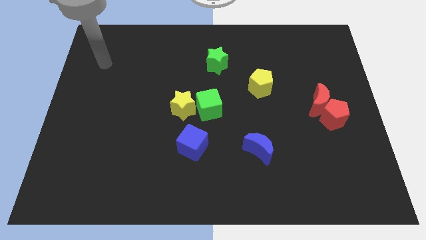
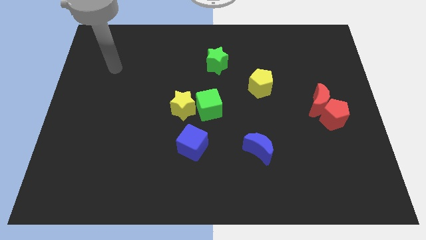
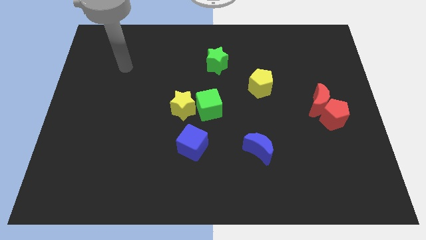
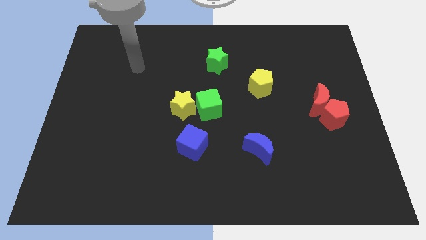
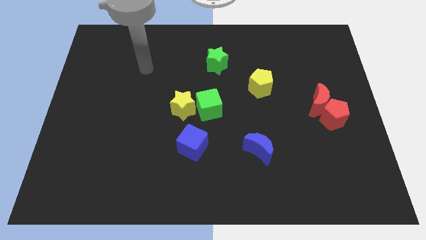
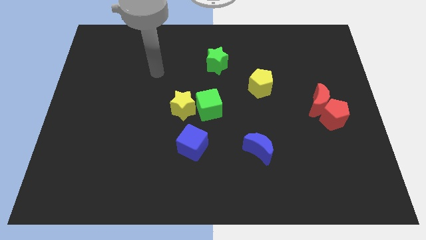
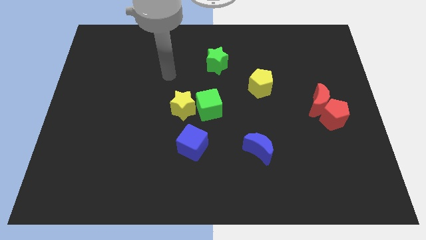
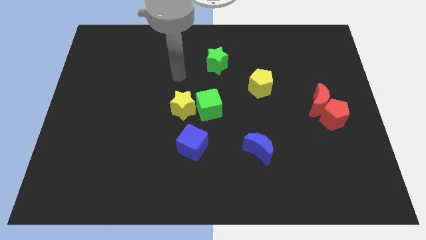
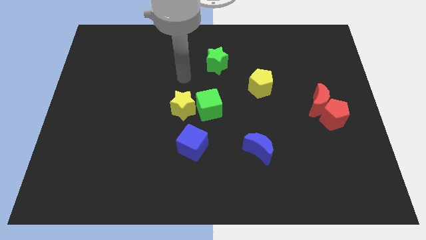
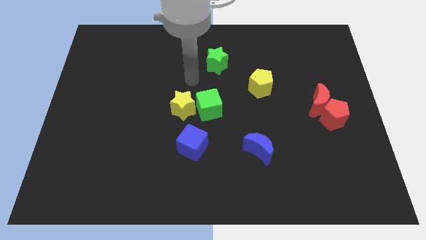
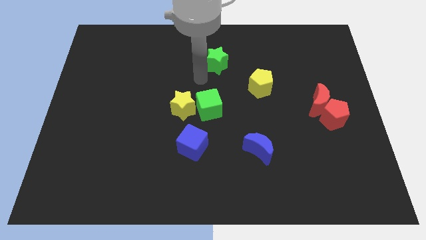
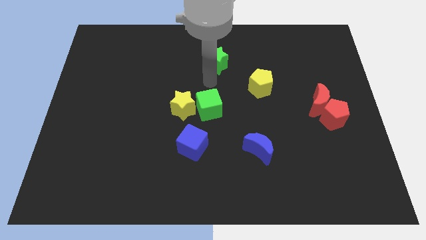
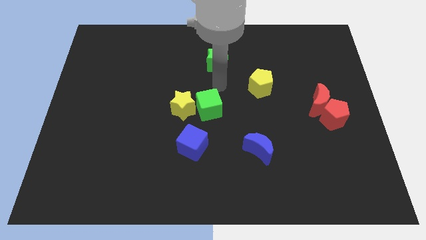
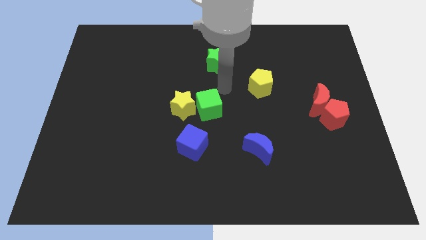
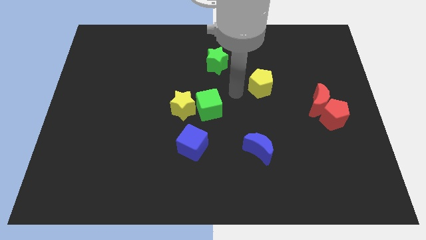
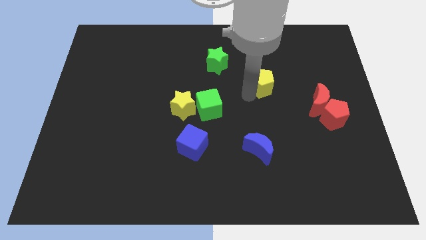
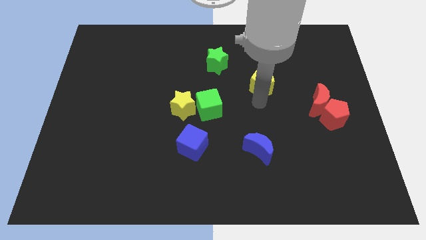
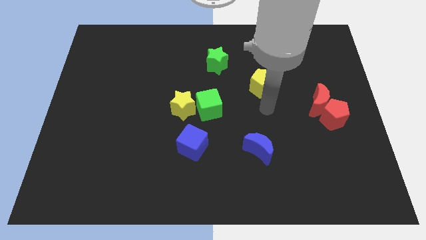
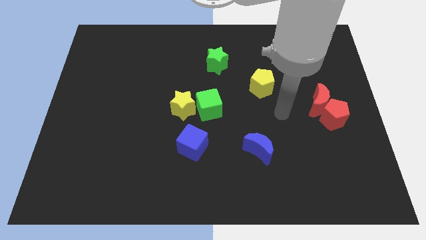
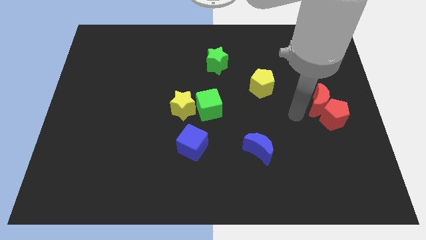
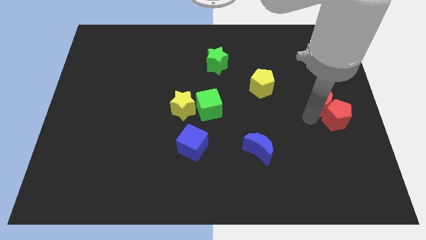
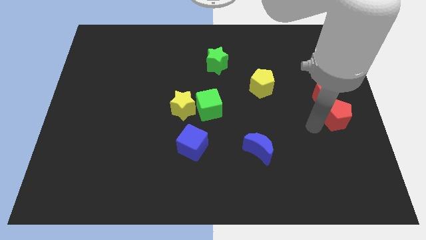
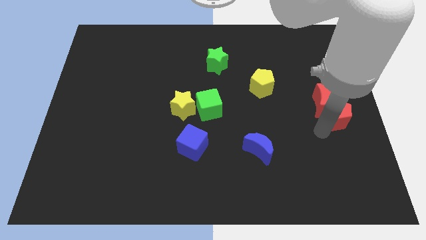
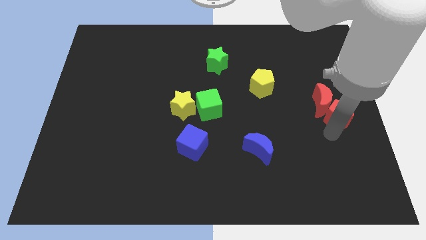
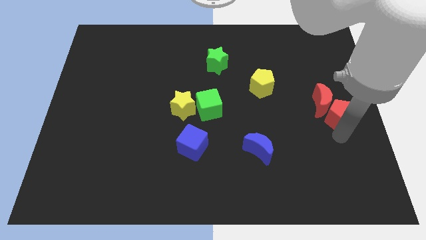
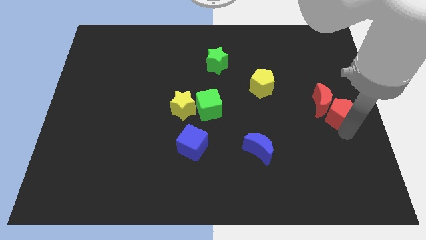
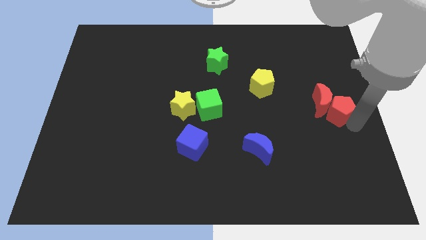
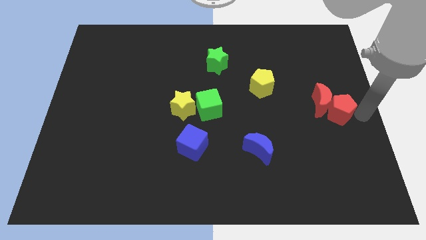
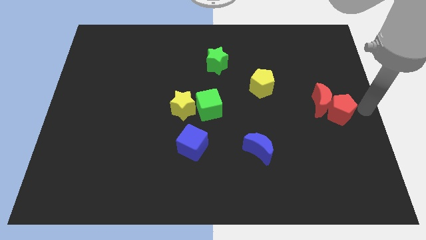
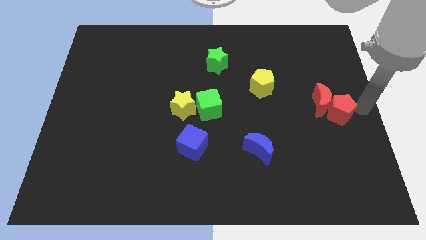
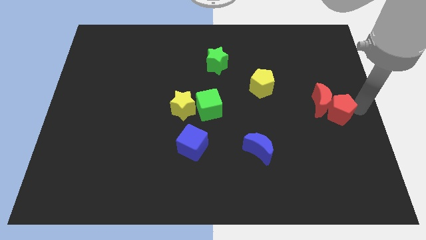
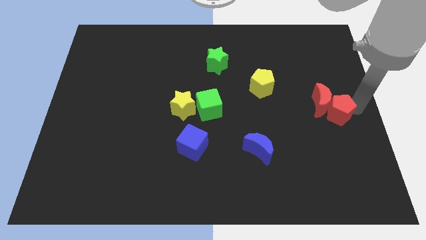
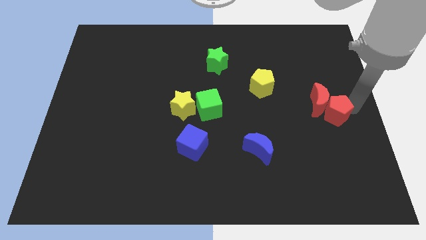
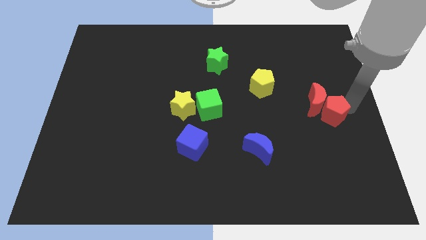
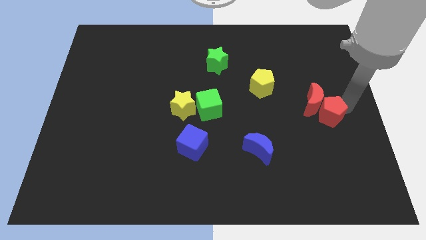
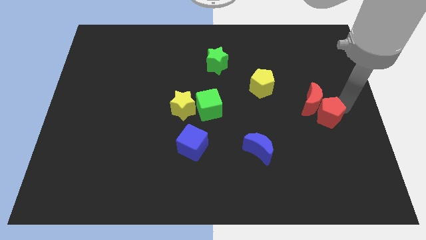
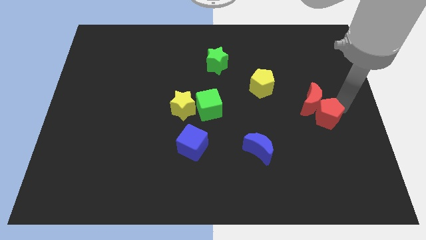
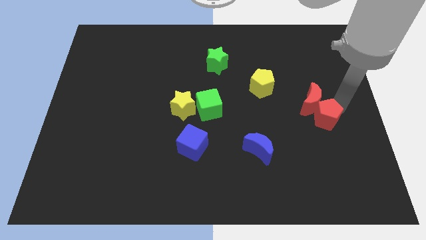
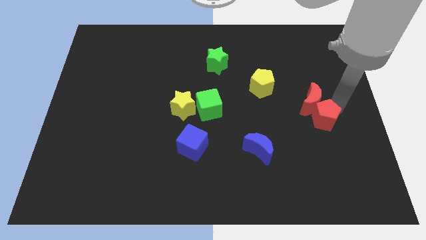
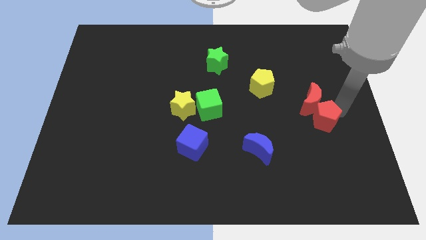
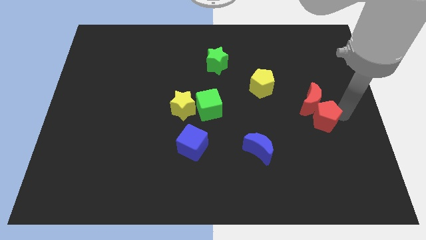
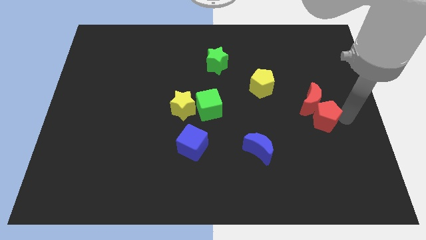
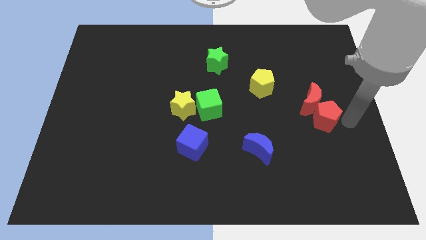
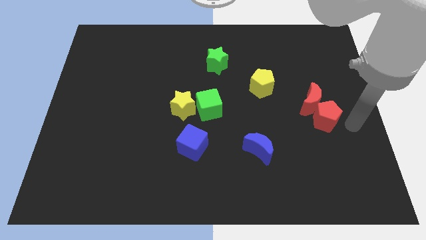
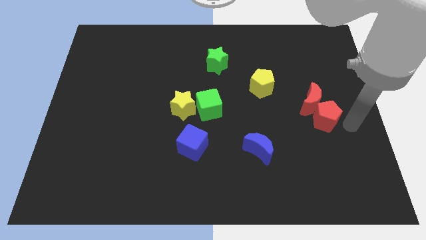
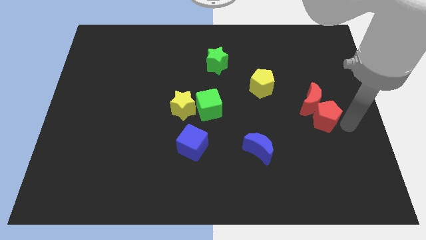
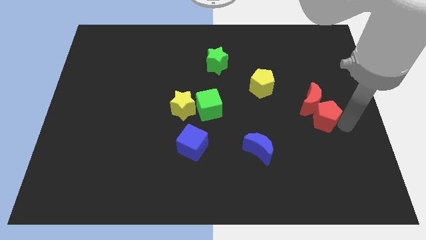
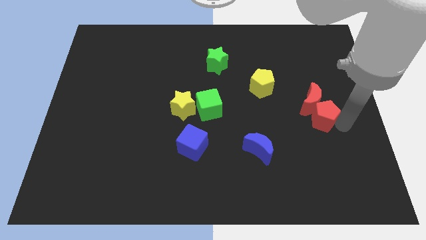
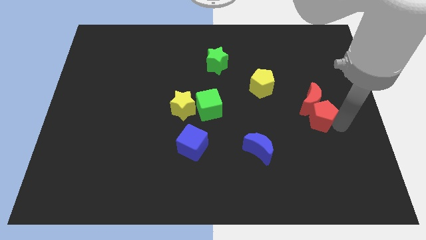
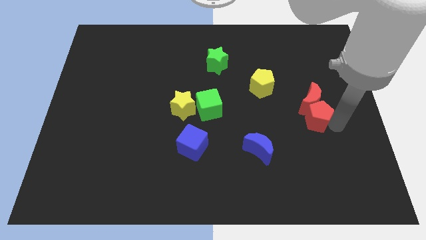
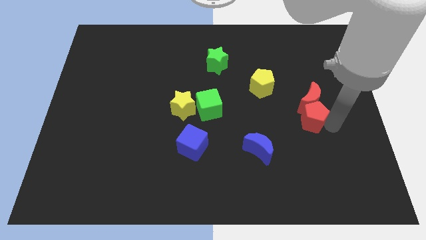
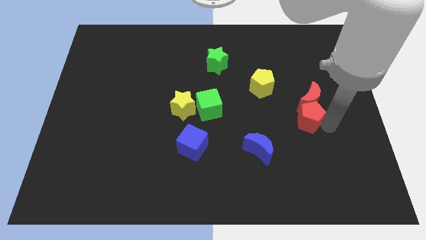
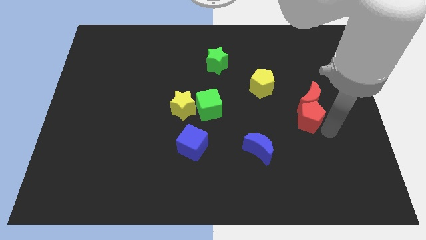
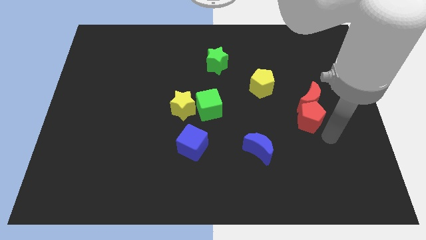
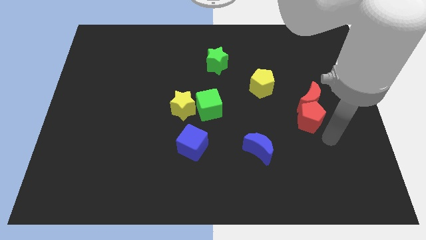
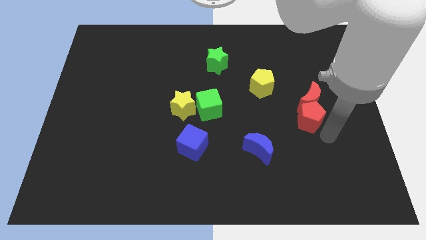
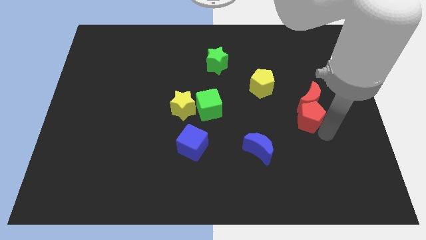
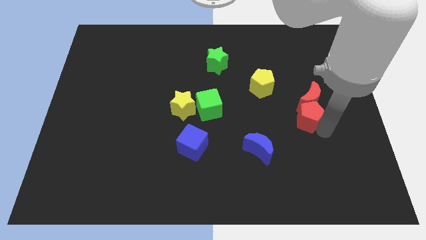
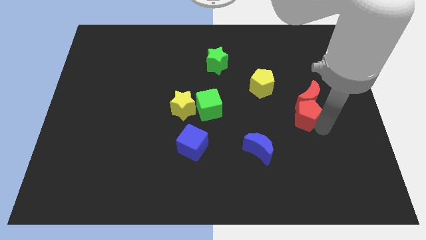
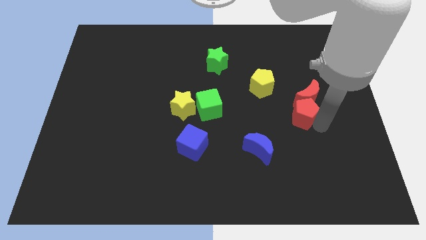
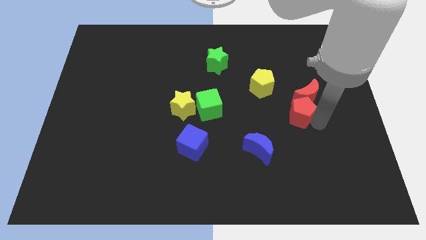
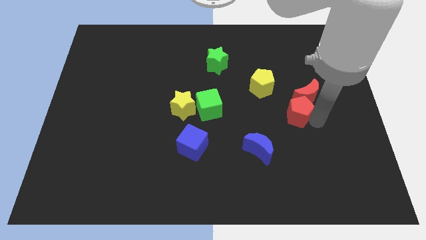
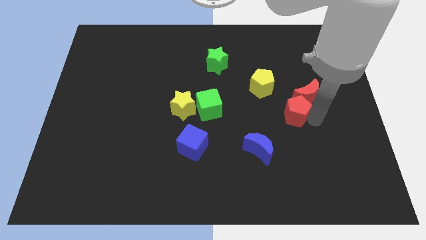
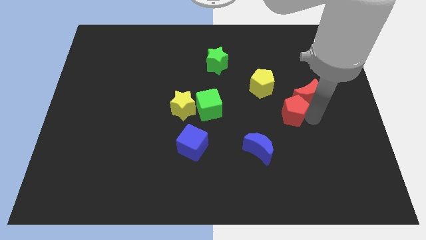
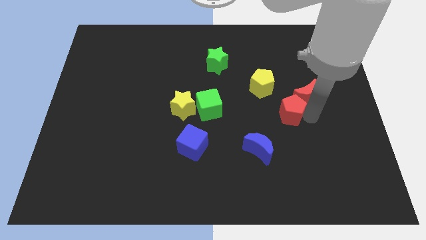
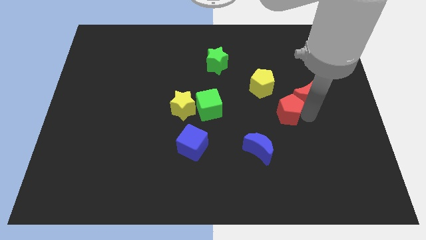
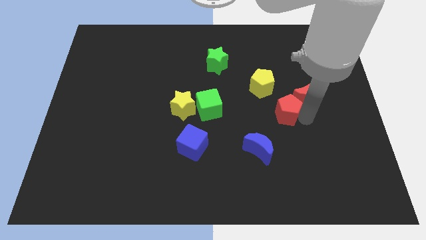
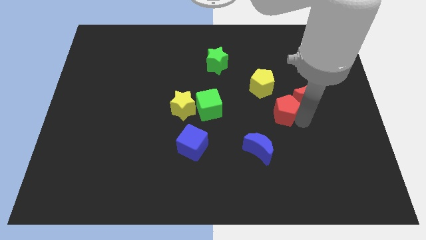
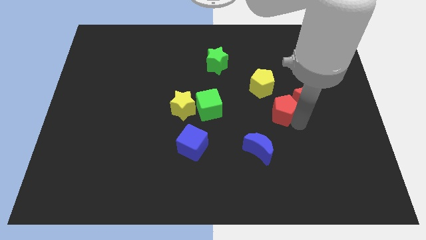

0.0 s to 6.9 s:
slide the red pentagon a little bit upwards and to the left diagonally

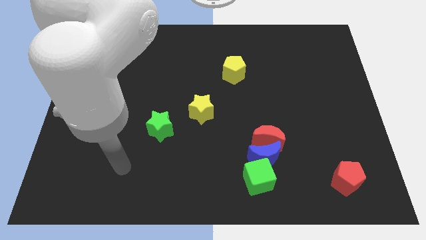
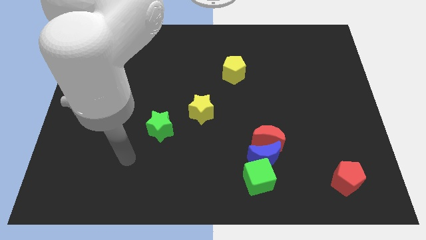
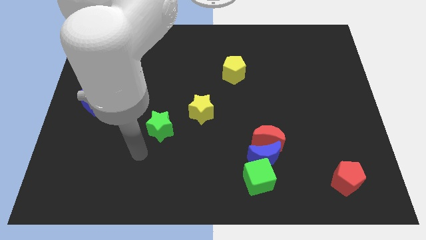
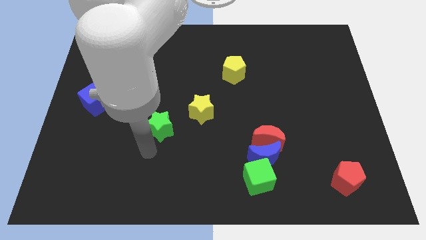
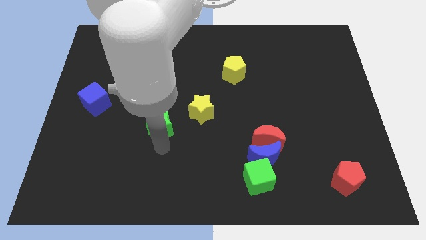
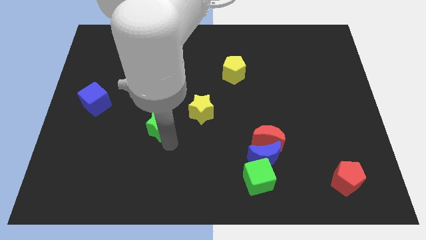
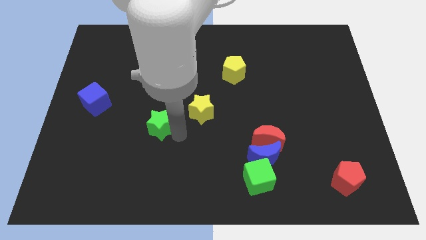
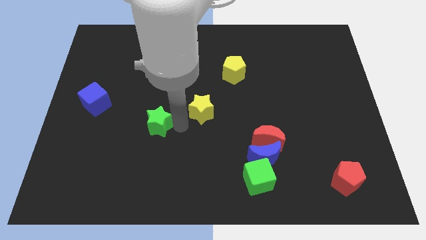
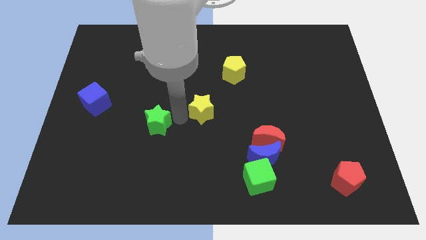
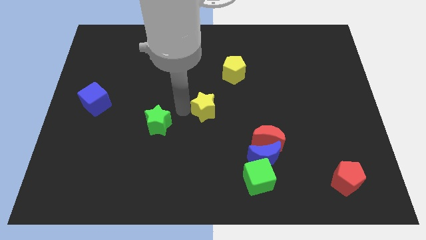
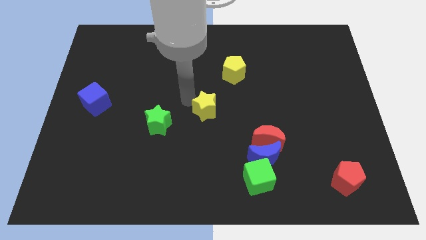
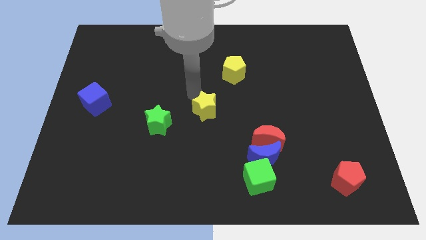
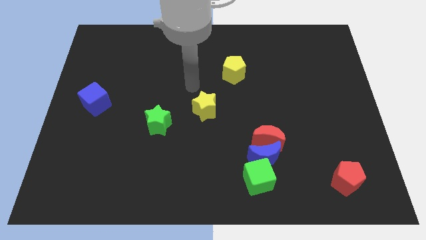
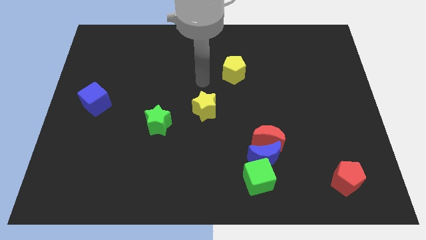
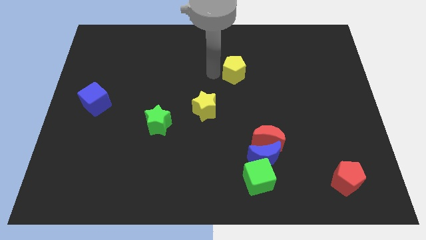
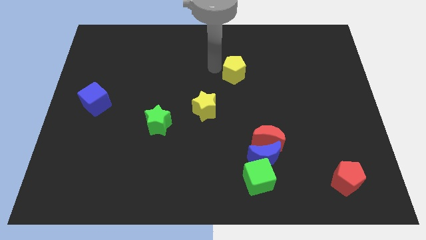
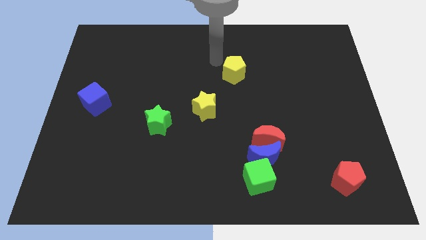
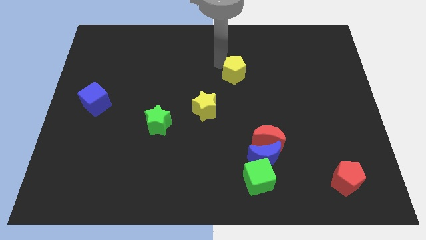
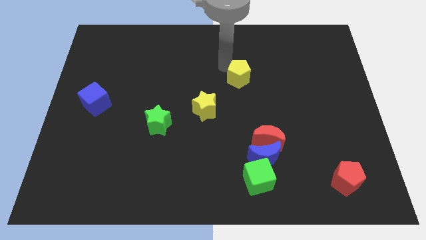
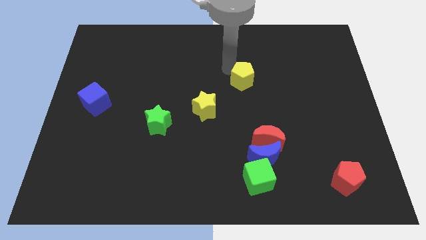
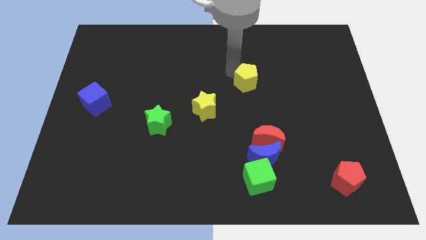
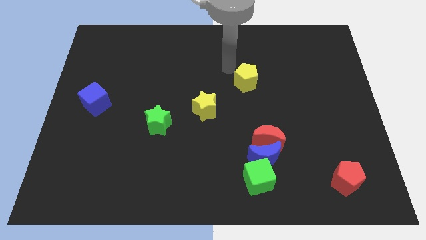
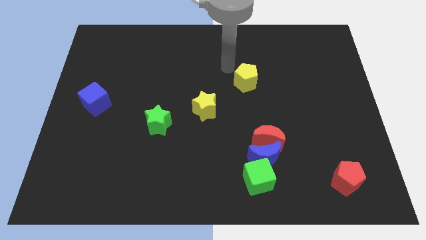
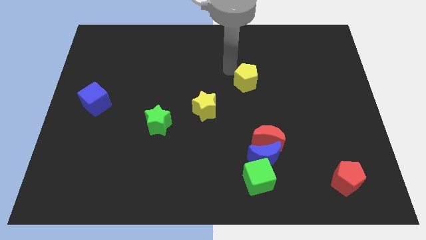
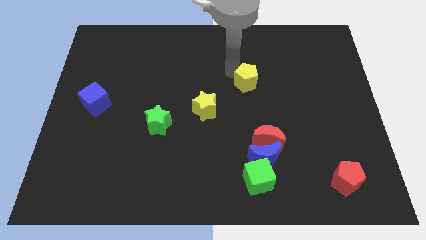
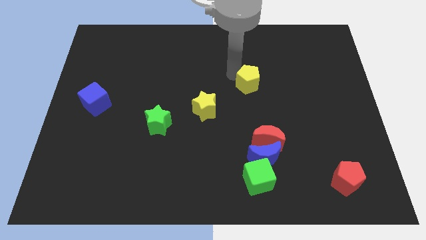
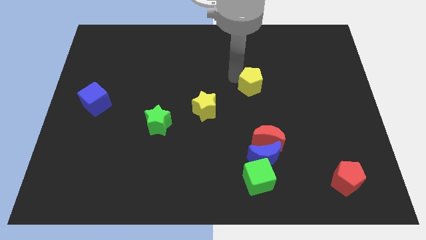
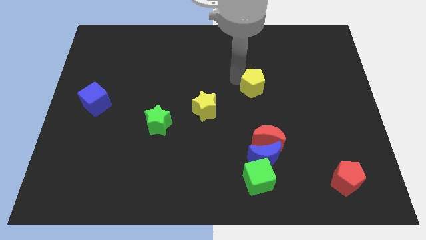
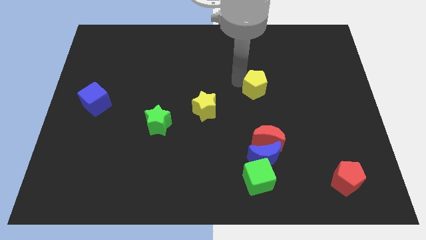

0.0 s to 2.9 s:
slide the yellow pentagon downwards and right diagonally a bit
